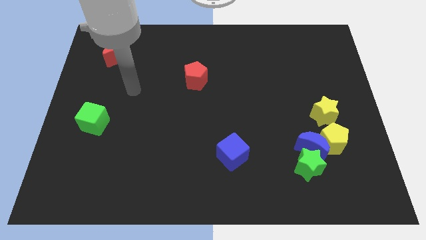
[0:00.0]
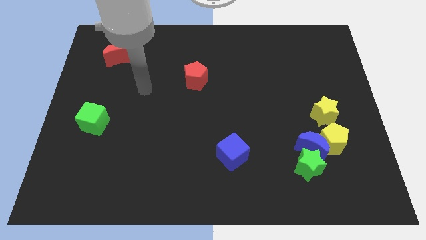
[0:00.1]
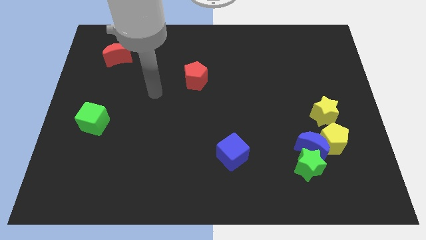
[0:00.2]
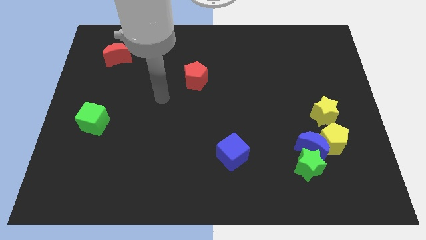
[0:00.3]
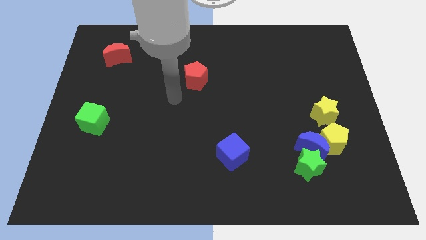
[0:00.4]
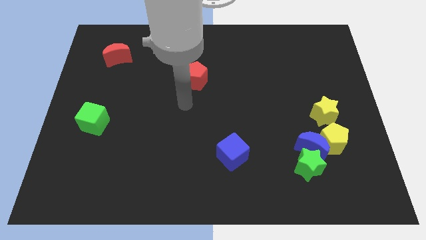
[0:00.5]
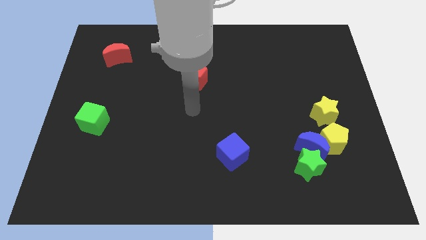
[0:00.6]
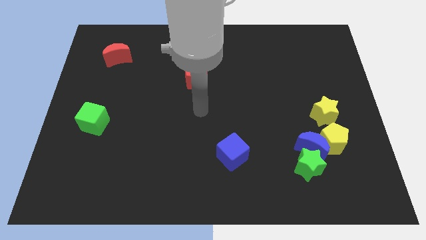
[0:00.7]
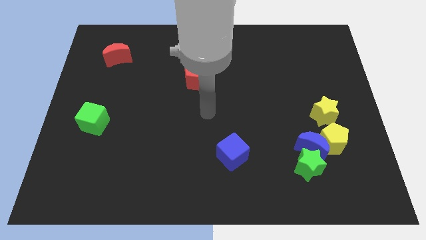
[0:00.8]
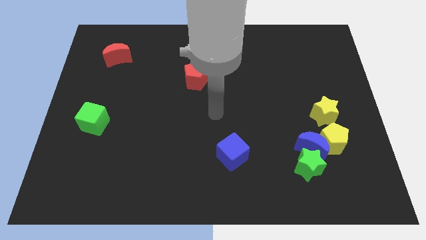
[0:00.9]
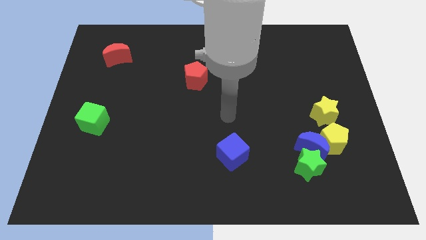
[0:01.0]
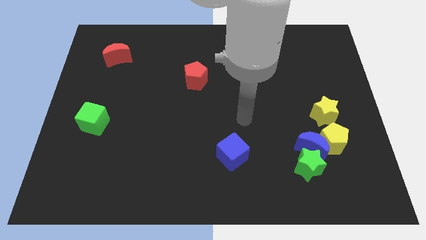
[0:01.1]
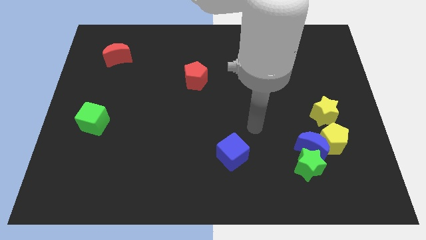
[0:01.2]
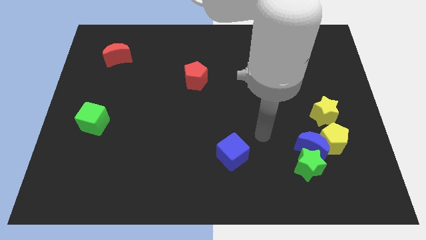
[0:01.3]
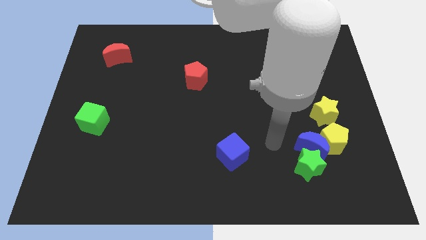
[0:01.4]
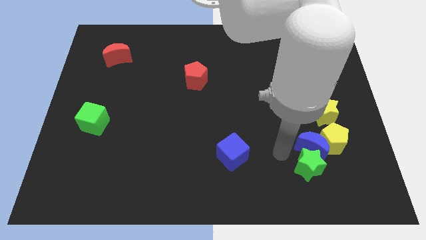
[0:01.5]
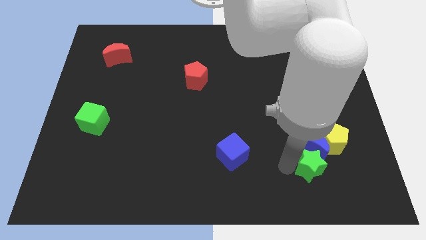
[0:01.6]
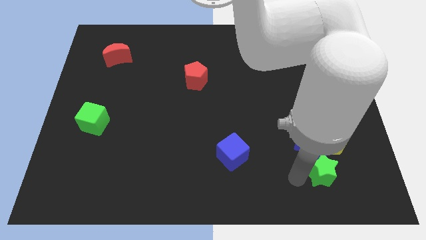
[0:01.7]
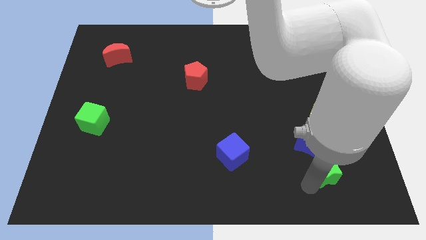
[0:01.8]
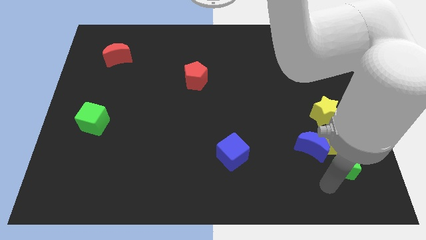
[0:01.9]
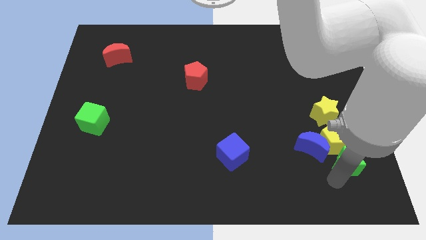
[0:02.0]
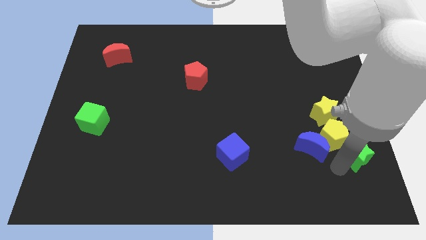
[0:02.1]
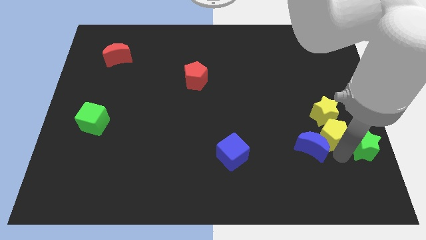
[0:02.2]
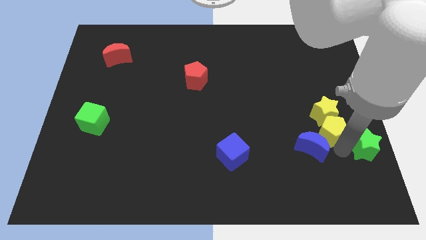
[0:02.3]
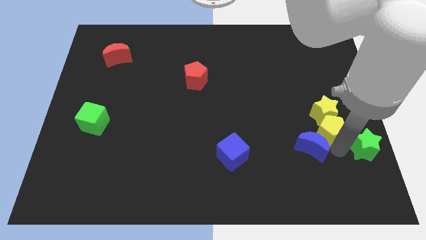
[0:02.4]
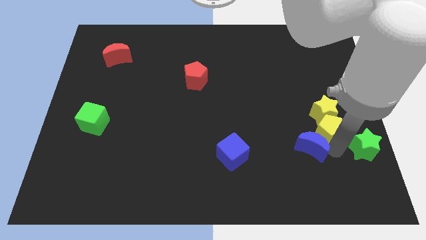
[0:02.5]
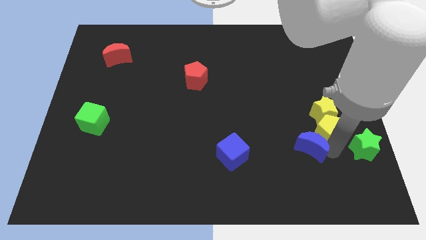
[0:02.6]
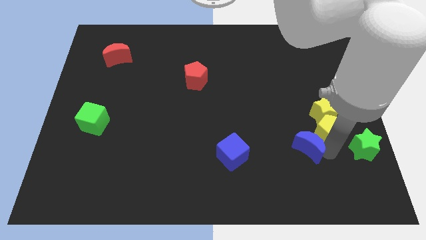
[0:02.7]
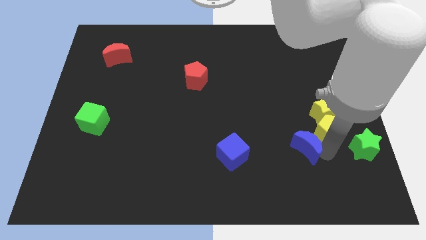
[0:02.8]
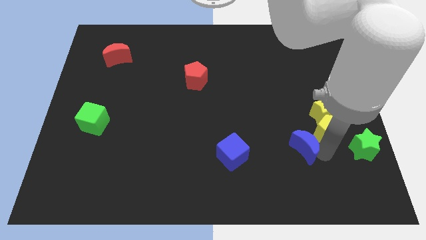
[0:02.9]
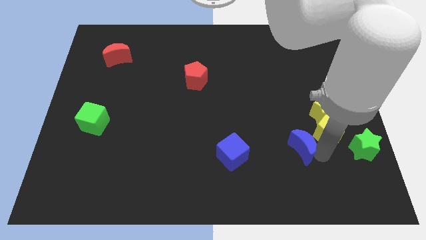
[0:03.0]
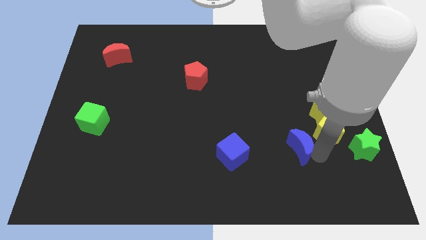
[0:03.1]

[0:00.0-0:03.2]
separate the blue moon from the green star, yellow pentagon, and yellow star

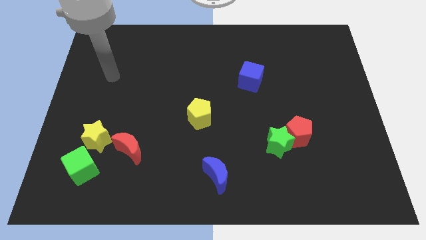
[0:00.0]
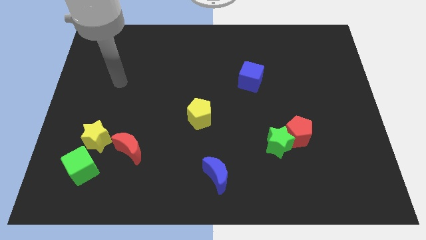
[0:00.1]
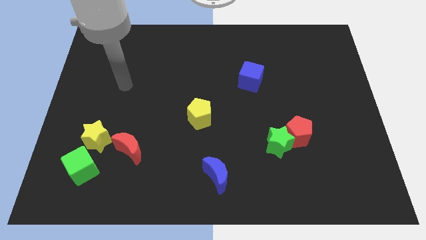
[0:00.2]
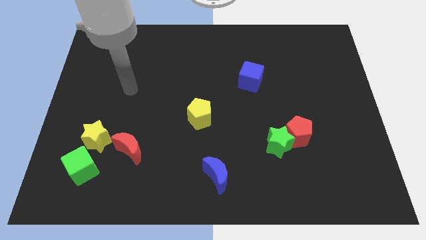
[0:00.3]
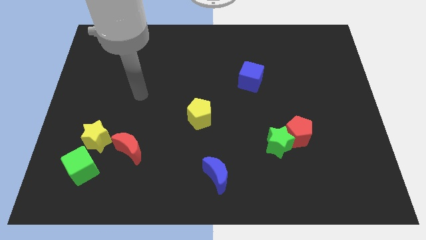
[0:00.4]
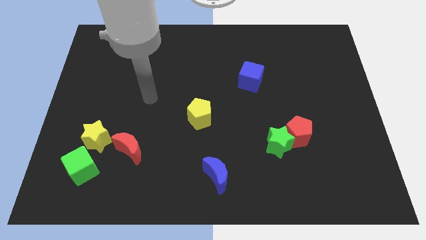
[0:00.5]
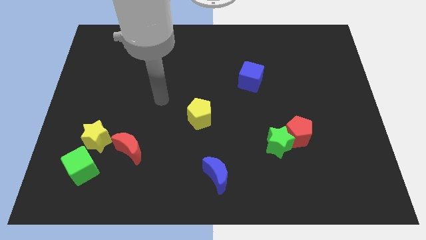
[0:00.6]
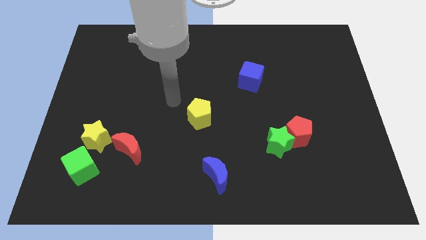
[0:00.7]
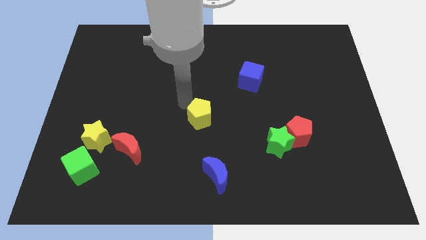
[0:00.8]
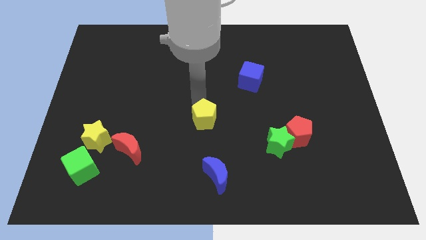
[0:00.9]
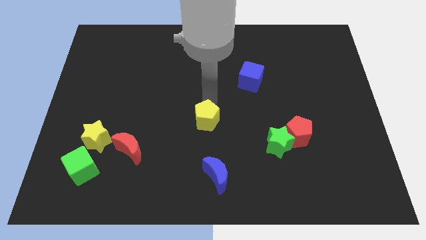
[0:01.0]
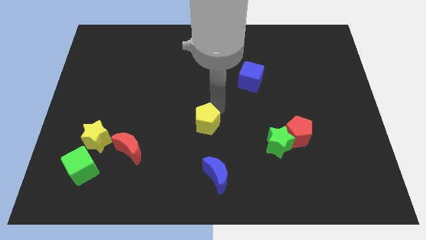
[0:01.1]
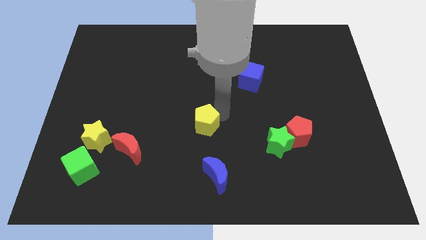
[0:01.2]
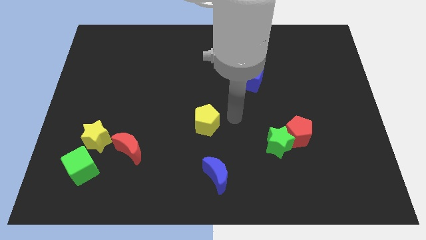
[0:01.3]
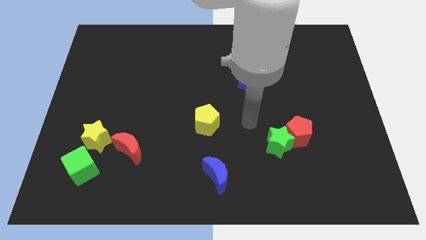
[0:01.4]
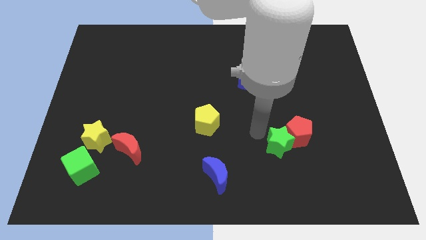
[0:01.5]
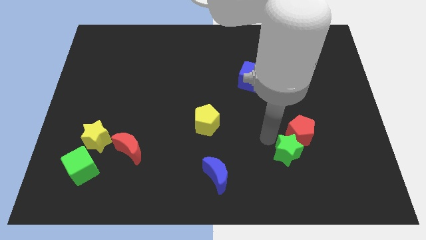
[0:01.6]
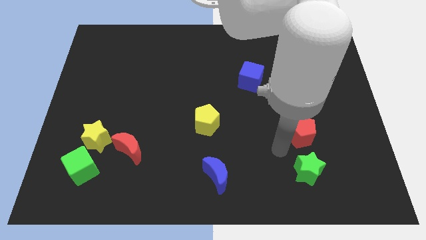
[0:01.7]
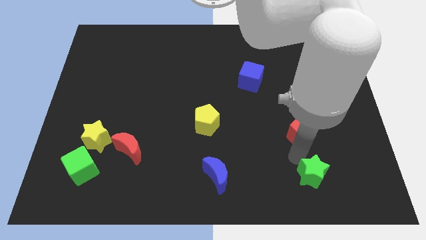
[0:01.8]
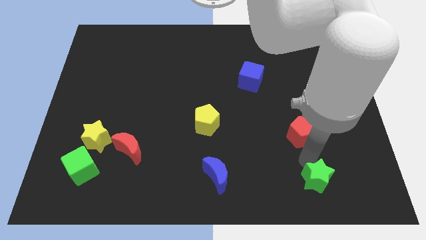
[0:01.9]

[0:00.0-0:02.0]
move the red pentagon away from the green star

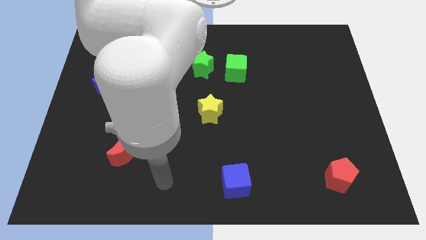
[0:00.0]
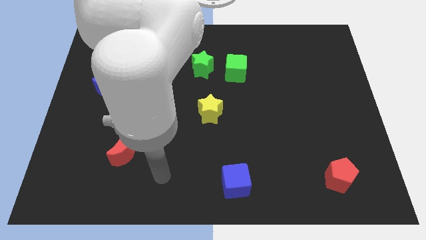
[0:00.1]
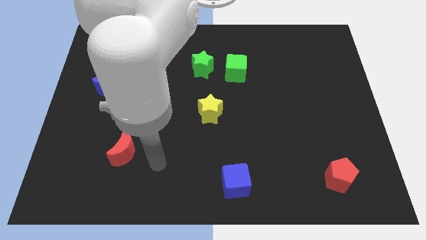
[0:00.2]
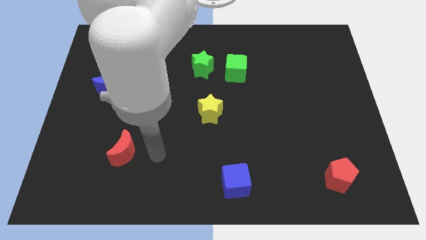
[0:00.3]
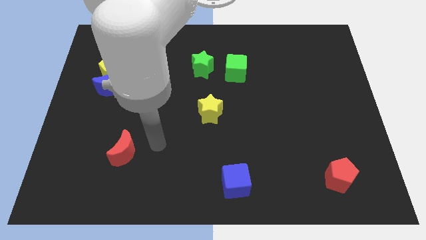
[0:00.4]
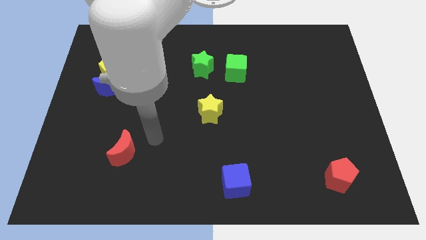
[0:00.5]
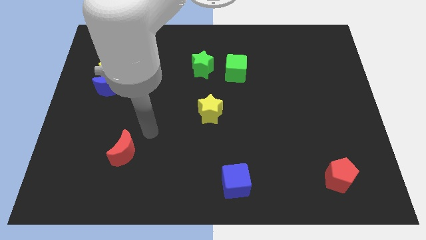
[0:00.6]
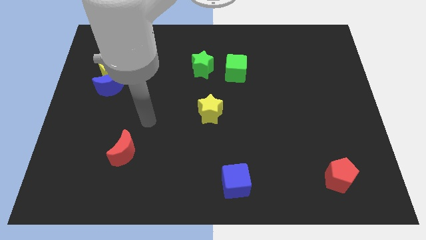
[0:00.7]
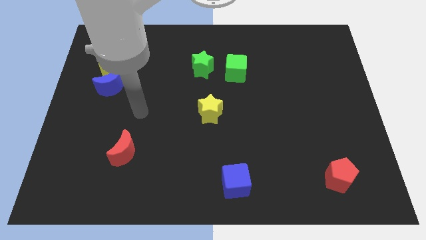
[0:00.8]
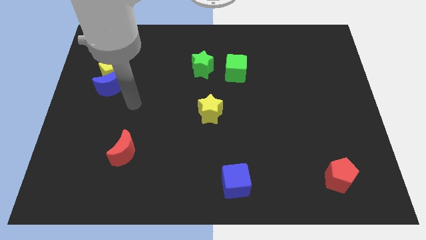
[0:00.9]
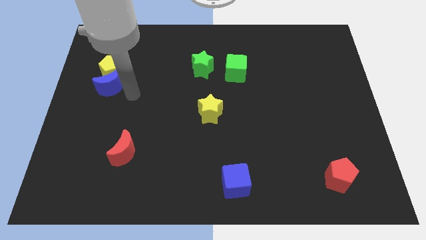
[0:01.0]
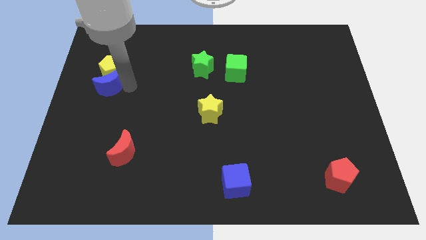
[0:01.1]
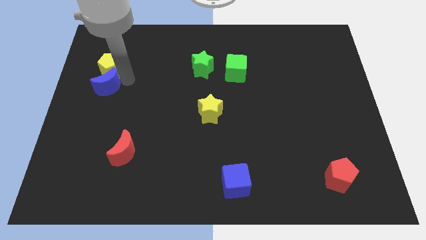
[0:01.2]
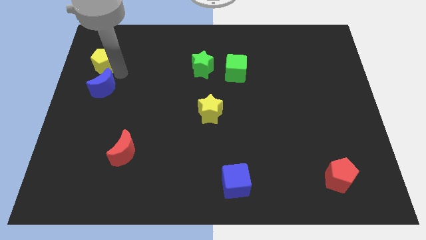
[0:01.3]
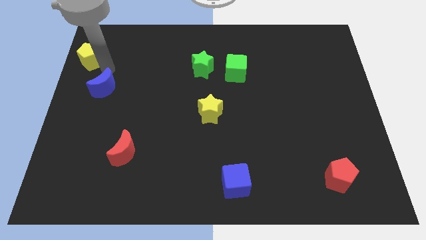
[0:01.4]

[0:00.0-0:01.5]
pull the blue moon apart from the yellow pentagon

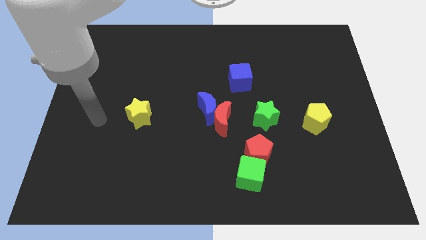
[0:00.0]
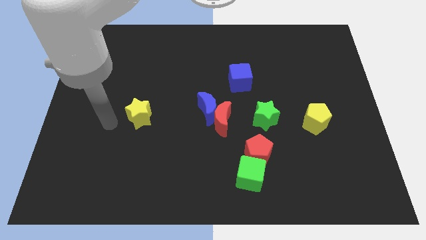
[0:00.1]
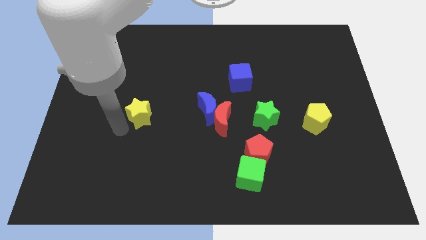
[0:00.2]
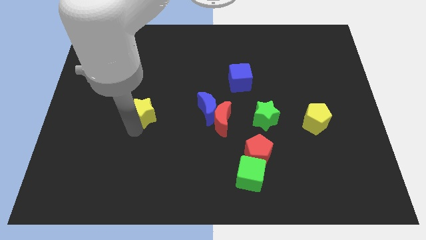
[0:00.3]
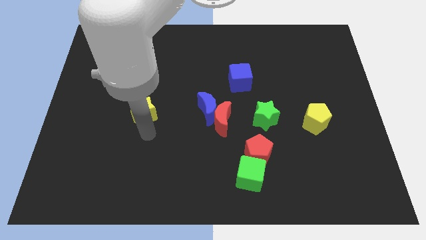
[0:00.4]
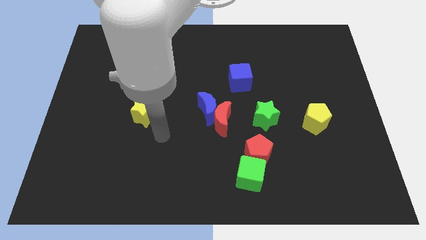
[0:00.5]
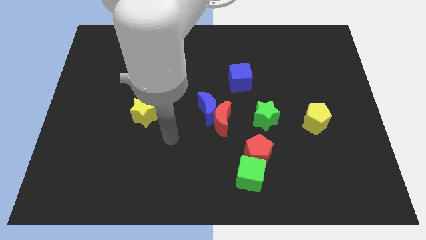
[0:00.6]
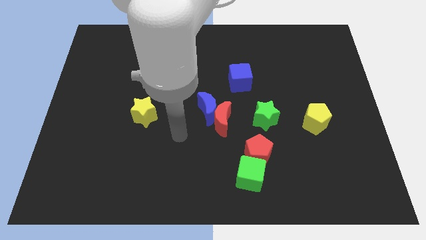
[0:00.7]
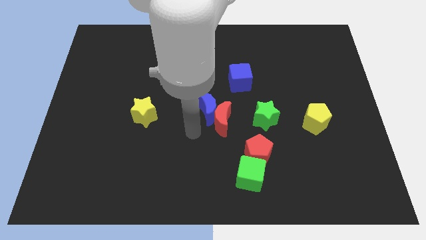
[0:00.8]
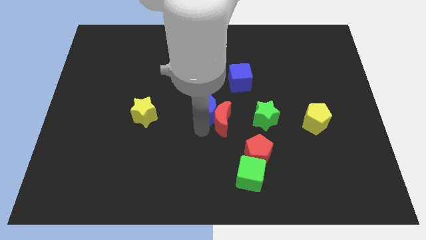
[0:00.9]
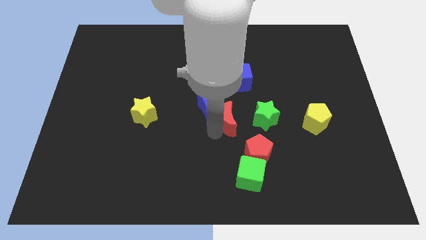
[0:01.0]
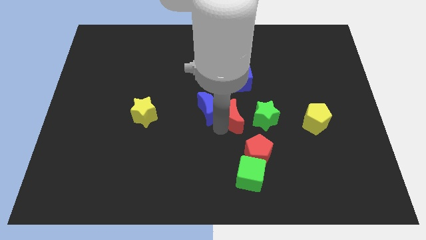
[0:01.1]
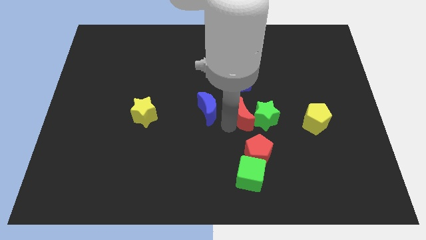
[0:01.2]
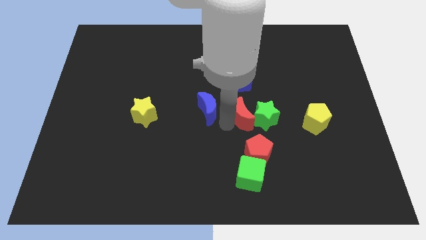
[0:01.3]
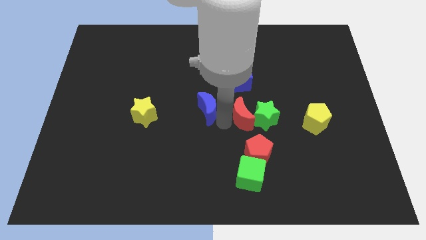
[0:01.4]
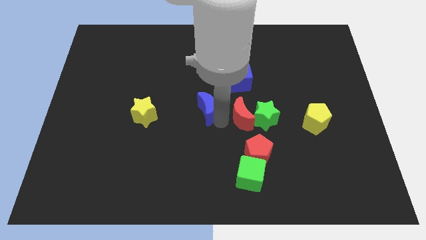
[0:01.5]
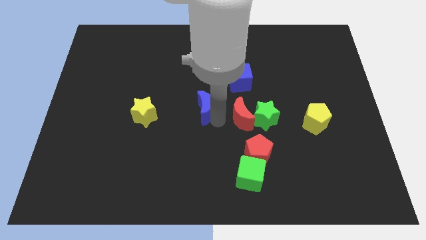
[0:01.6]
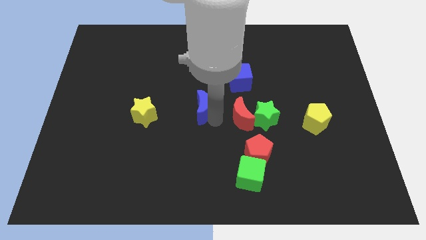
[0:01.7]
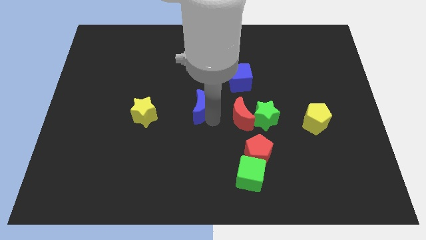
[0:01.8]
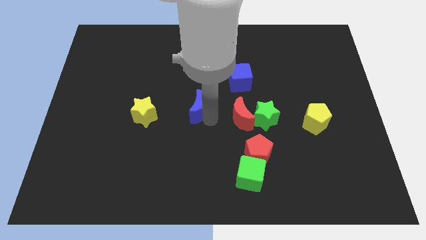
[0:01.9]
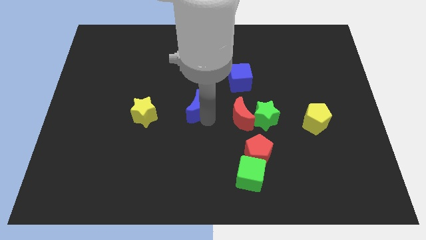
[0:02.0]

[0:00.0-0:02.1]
pull the blue moon apart from the red moon

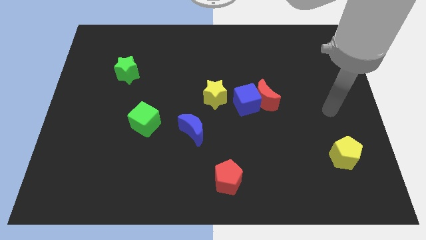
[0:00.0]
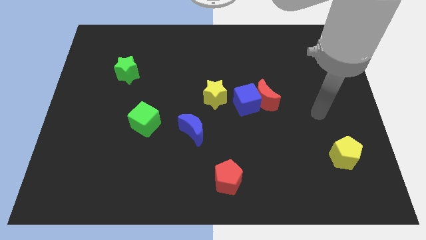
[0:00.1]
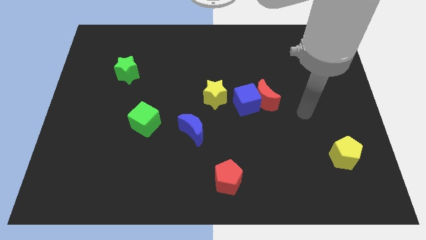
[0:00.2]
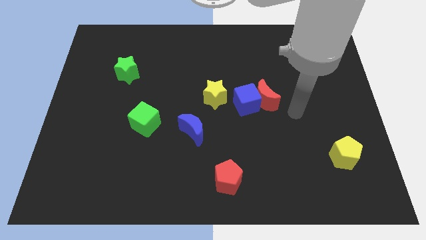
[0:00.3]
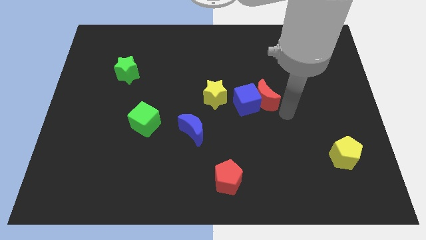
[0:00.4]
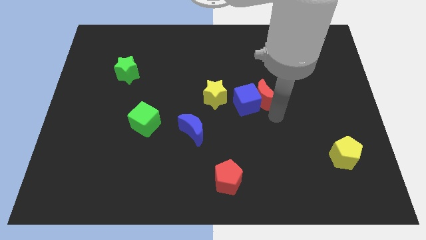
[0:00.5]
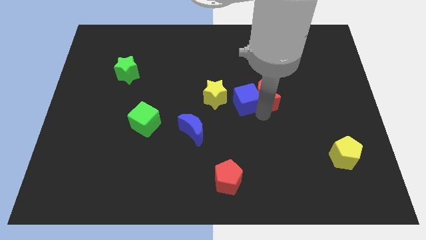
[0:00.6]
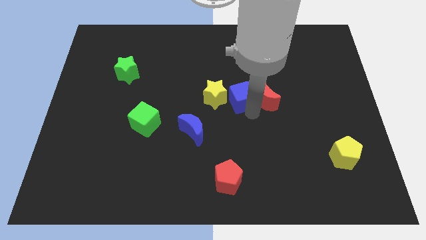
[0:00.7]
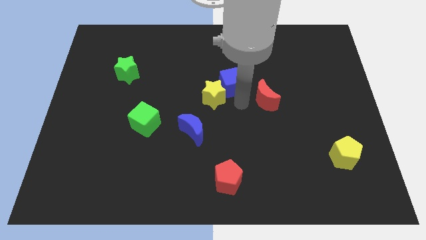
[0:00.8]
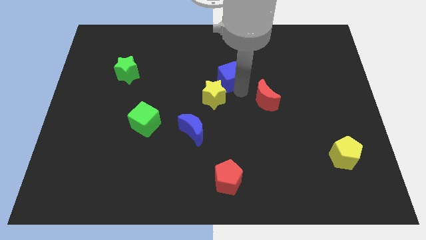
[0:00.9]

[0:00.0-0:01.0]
pull the red moon apart from the blue cube
